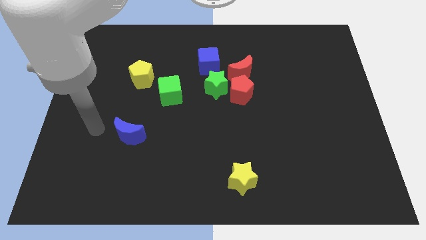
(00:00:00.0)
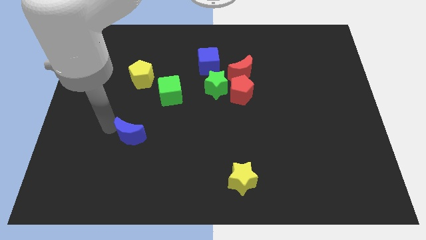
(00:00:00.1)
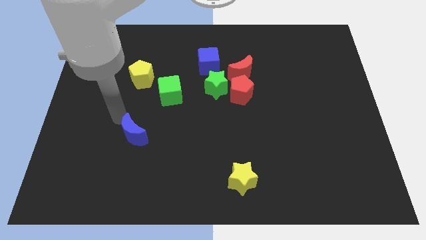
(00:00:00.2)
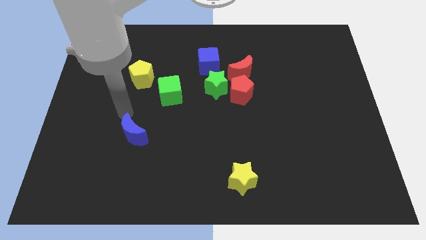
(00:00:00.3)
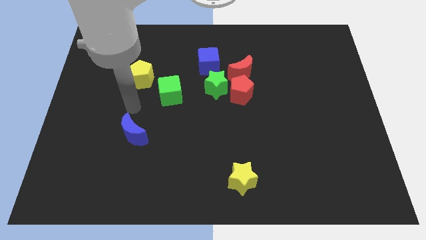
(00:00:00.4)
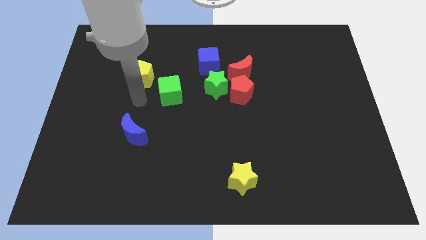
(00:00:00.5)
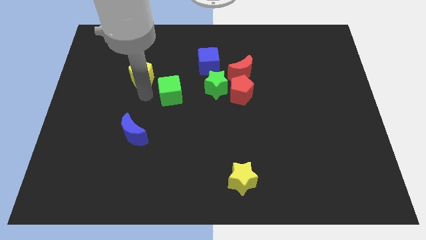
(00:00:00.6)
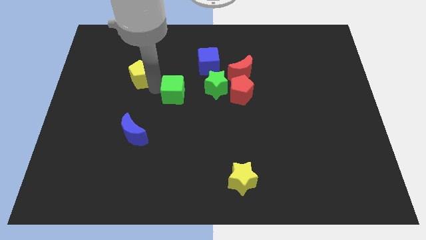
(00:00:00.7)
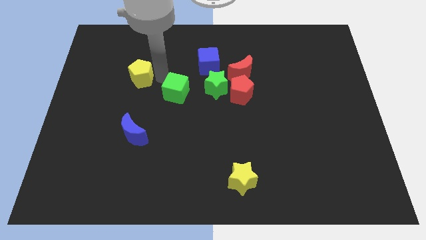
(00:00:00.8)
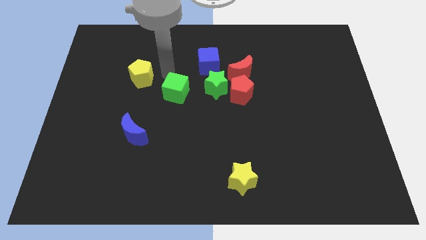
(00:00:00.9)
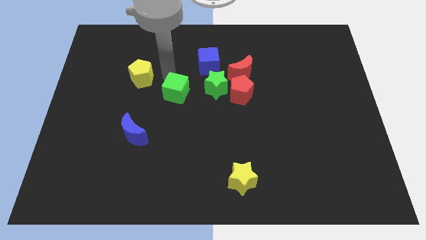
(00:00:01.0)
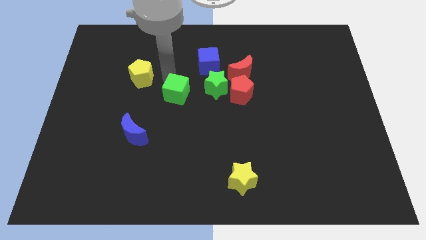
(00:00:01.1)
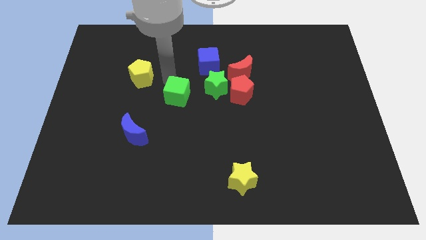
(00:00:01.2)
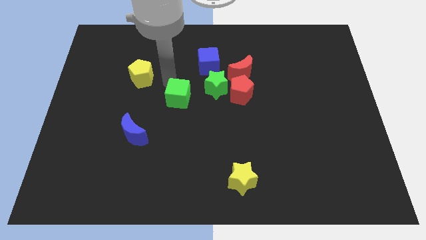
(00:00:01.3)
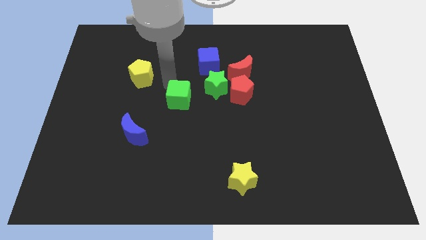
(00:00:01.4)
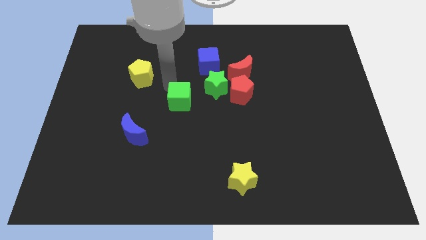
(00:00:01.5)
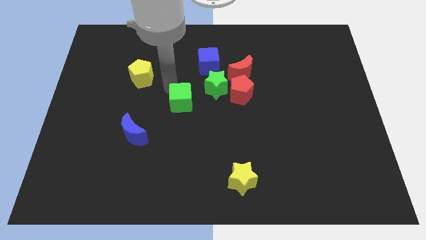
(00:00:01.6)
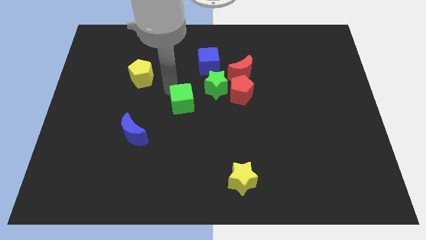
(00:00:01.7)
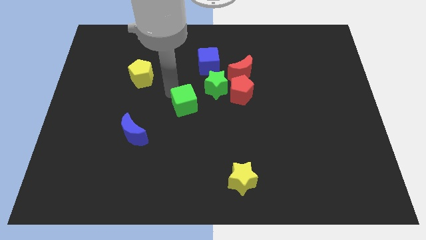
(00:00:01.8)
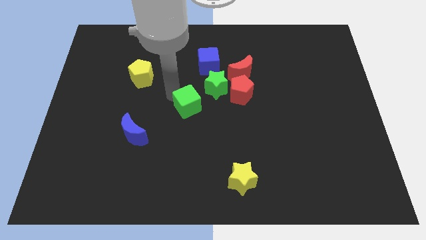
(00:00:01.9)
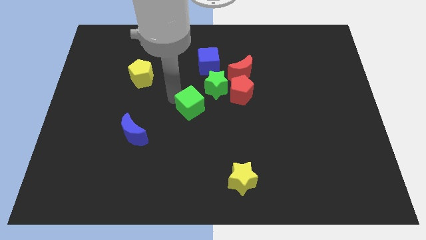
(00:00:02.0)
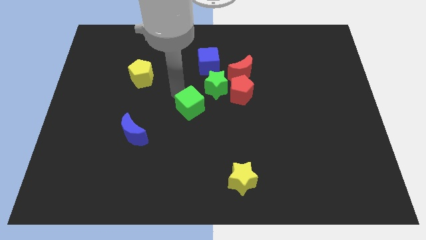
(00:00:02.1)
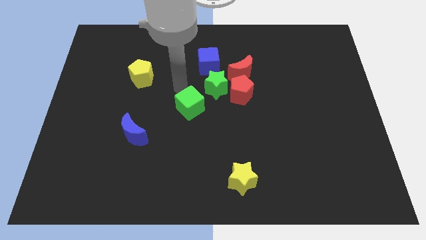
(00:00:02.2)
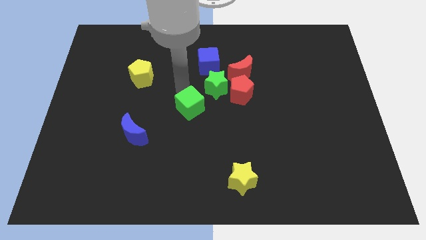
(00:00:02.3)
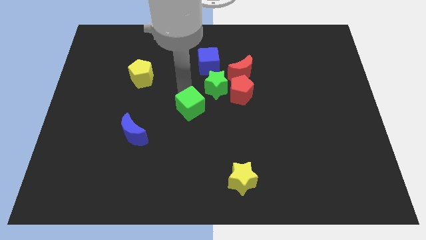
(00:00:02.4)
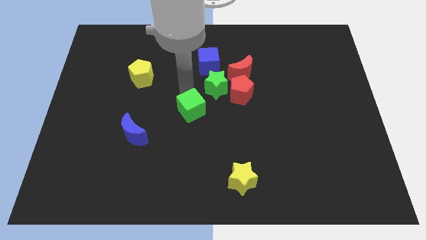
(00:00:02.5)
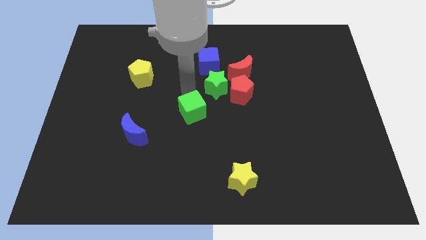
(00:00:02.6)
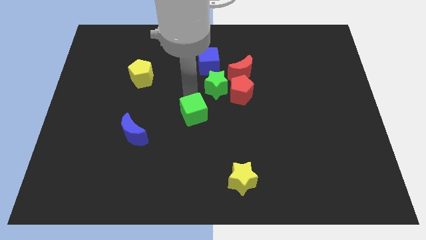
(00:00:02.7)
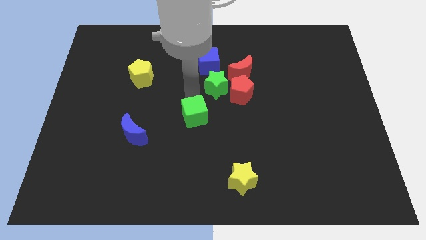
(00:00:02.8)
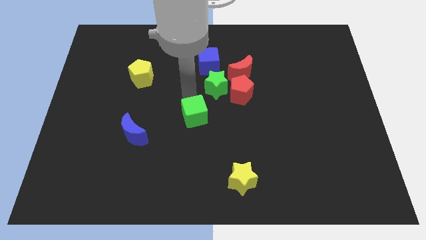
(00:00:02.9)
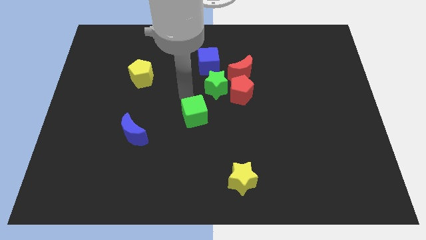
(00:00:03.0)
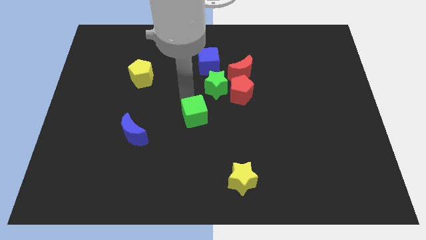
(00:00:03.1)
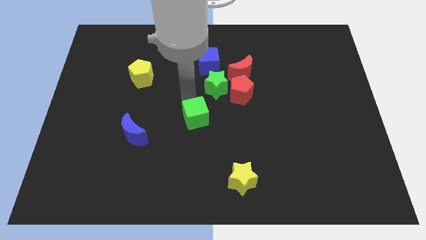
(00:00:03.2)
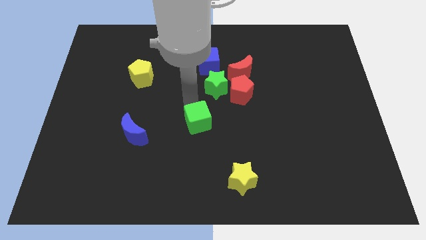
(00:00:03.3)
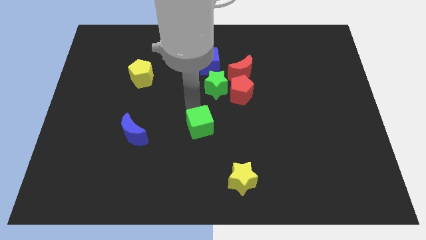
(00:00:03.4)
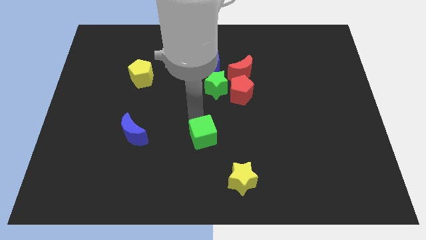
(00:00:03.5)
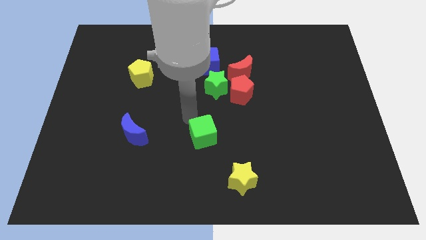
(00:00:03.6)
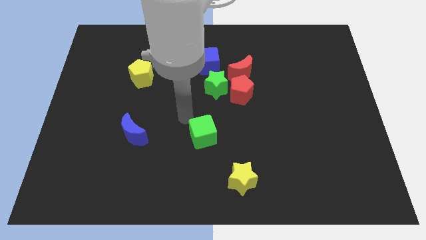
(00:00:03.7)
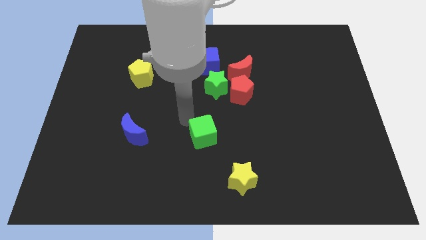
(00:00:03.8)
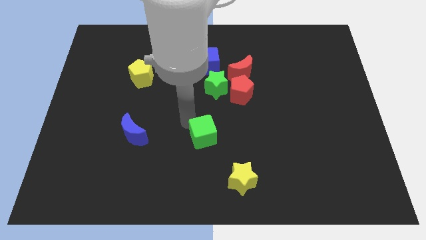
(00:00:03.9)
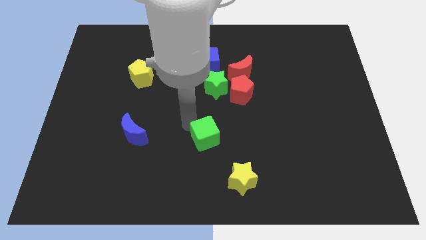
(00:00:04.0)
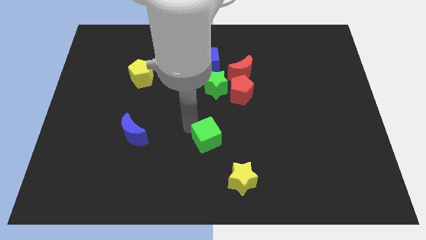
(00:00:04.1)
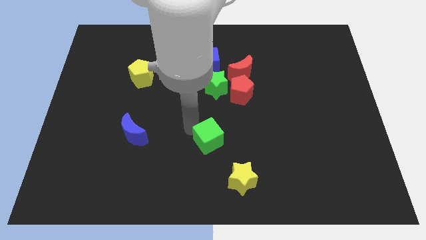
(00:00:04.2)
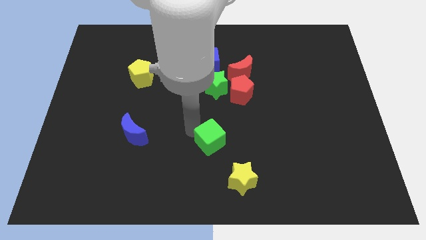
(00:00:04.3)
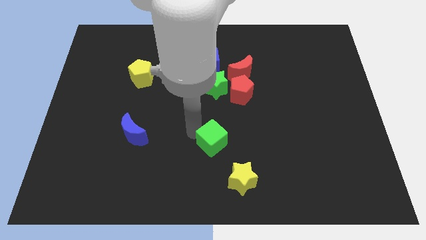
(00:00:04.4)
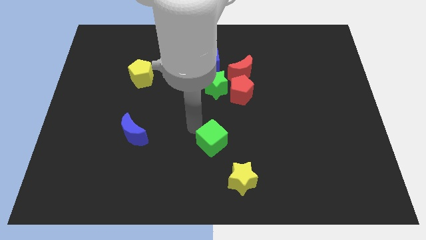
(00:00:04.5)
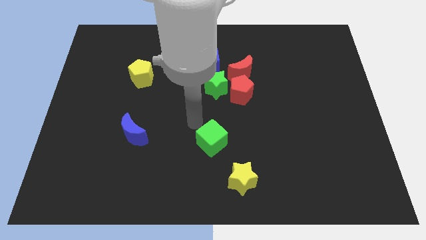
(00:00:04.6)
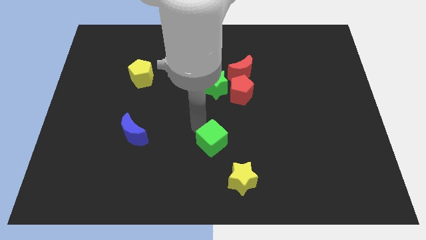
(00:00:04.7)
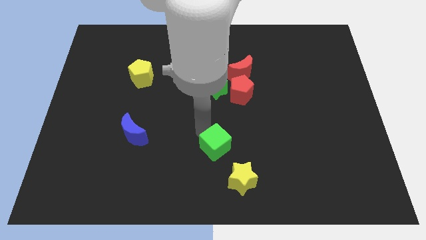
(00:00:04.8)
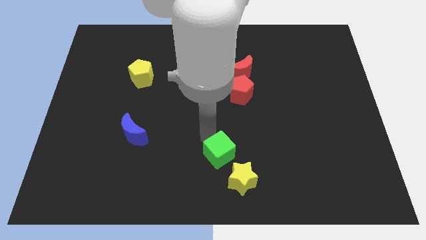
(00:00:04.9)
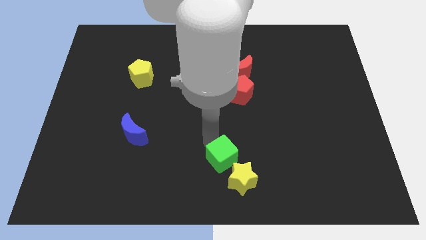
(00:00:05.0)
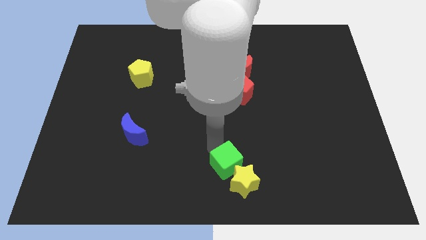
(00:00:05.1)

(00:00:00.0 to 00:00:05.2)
push the green cube to the yellow star
